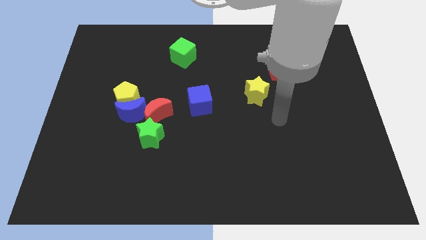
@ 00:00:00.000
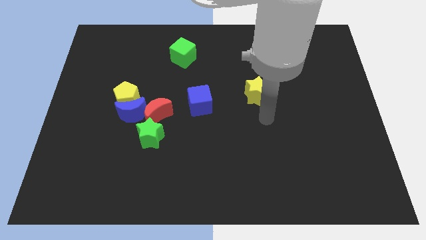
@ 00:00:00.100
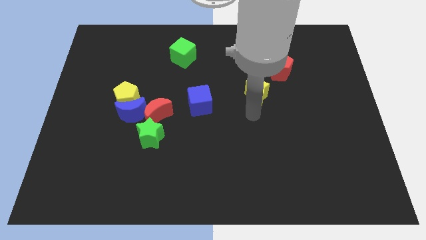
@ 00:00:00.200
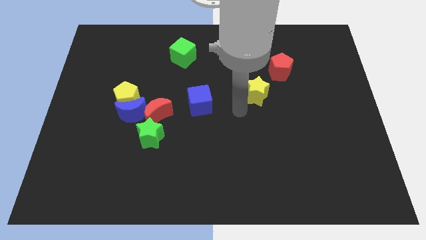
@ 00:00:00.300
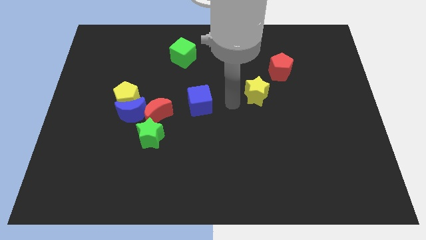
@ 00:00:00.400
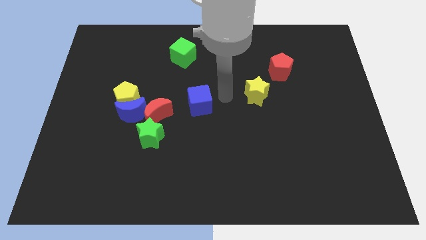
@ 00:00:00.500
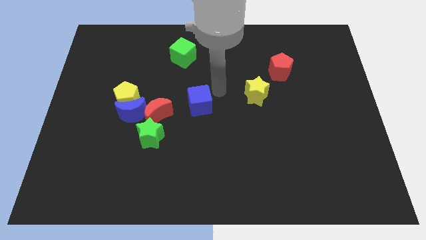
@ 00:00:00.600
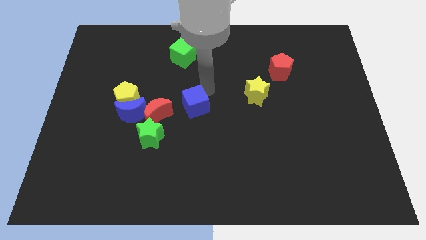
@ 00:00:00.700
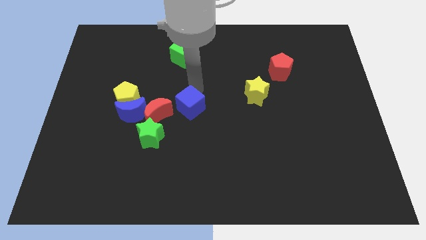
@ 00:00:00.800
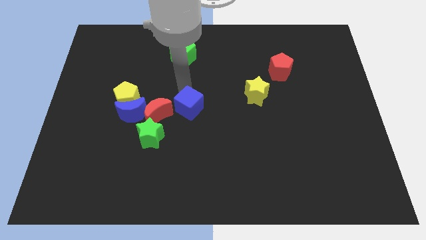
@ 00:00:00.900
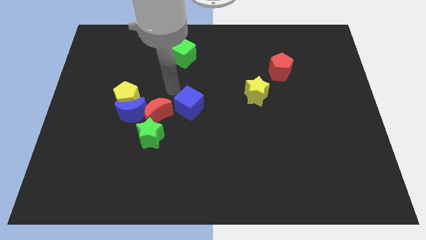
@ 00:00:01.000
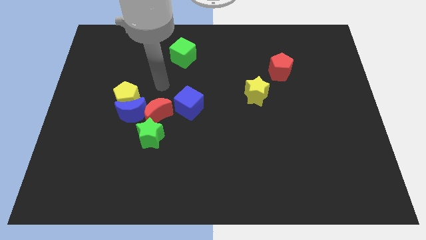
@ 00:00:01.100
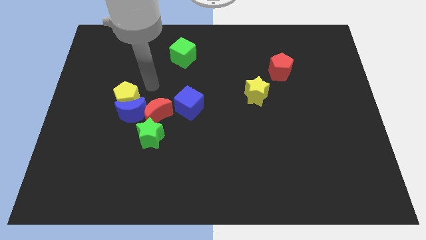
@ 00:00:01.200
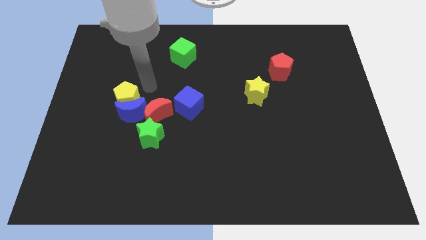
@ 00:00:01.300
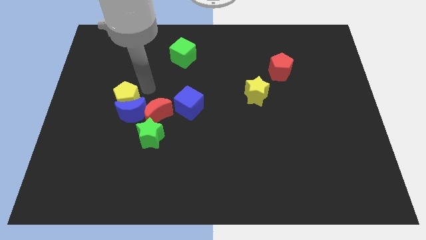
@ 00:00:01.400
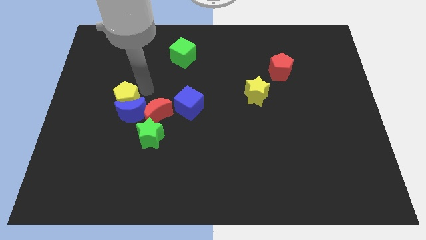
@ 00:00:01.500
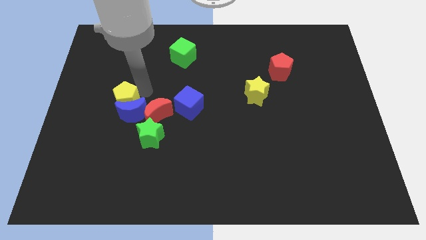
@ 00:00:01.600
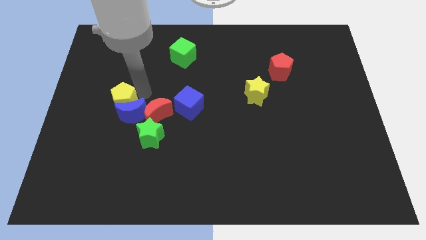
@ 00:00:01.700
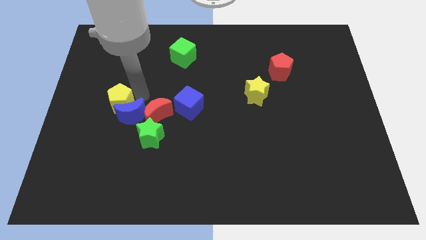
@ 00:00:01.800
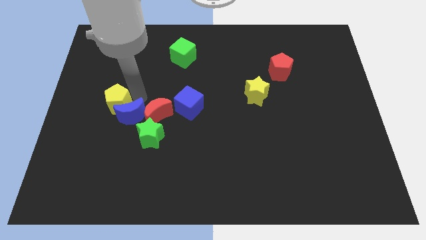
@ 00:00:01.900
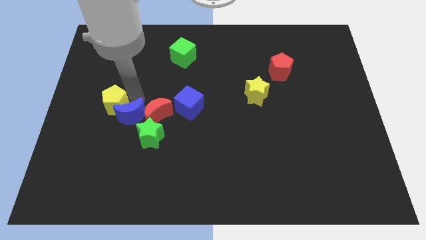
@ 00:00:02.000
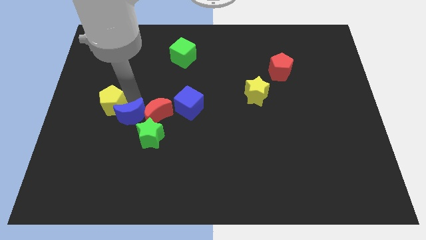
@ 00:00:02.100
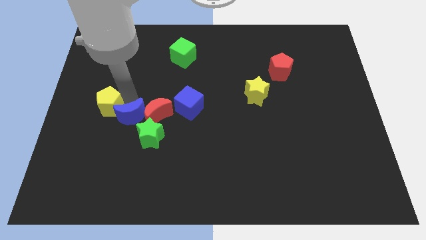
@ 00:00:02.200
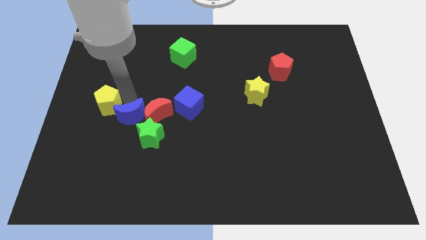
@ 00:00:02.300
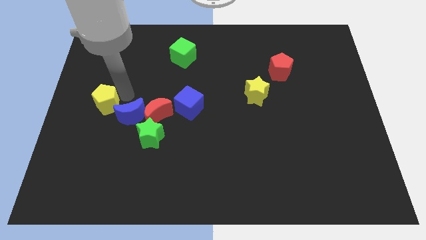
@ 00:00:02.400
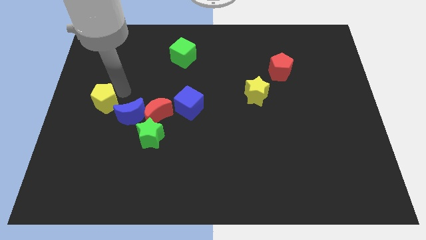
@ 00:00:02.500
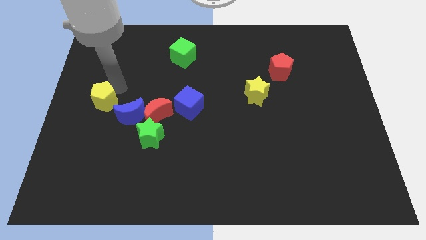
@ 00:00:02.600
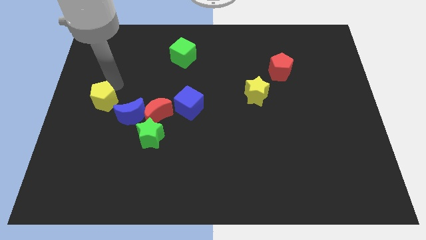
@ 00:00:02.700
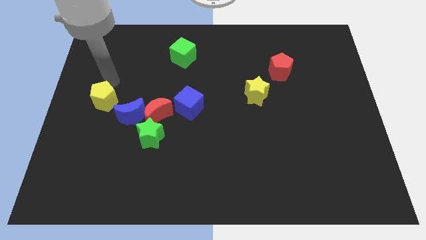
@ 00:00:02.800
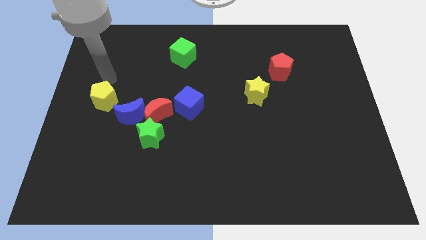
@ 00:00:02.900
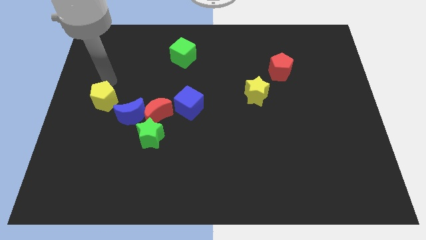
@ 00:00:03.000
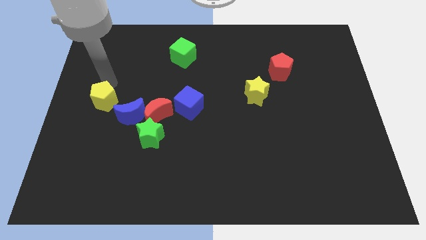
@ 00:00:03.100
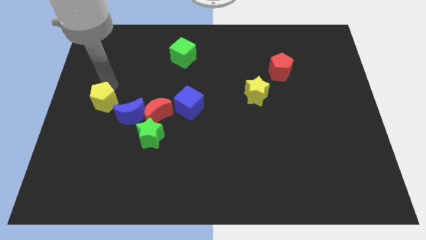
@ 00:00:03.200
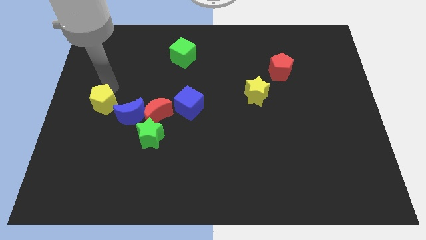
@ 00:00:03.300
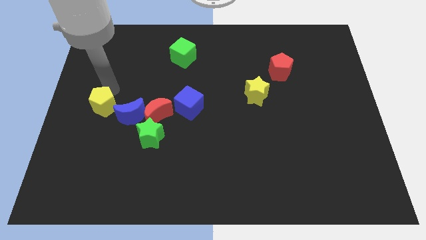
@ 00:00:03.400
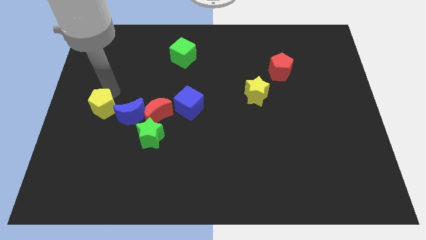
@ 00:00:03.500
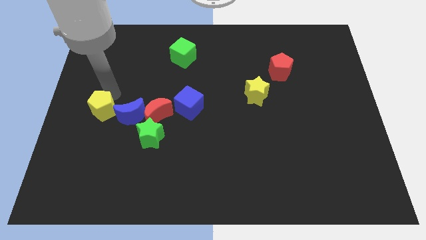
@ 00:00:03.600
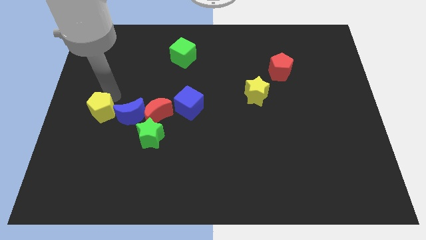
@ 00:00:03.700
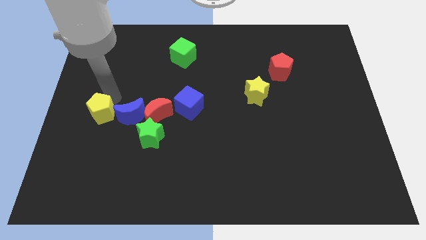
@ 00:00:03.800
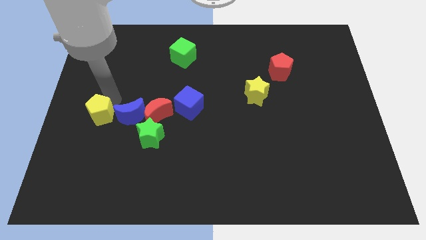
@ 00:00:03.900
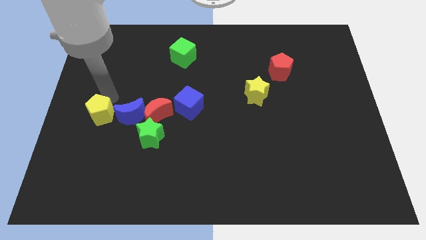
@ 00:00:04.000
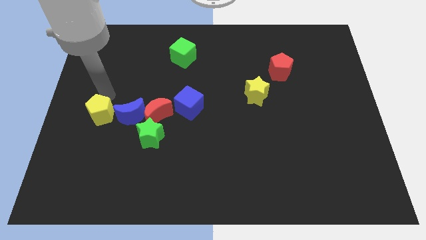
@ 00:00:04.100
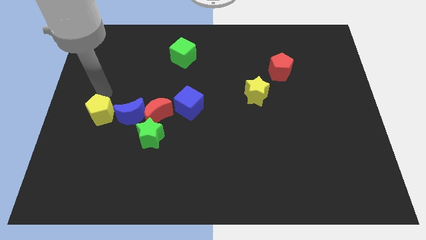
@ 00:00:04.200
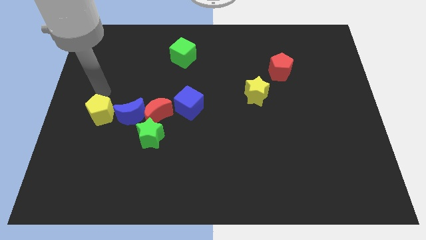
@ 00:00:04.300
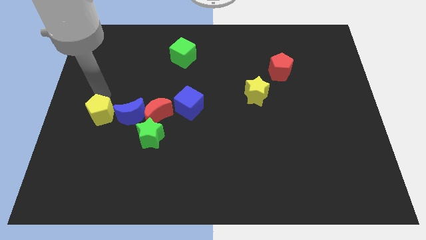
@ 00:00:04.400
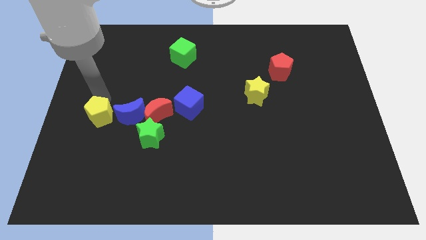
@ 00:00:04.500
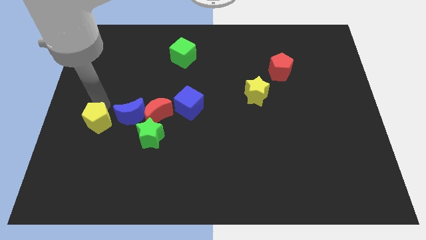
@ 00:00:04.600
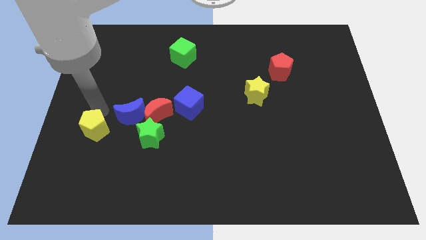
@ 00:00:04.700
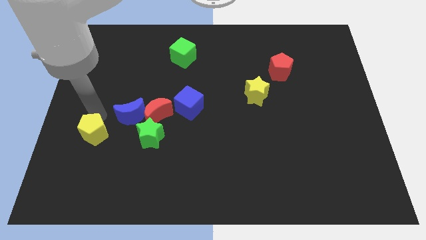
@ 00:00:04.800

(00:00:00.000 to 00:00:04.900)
move the yellow pentagon downwards a little

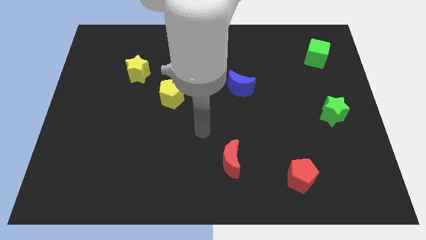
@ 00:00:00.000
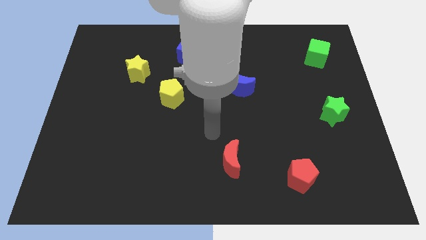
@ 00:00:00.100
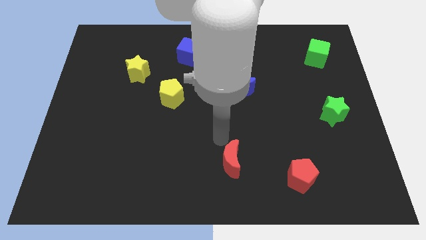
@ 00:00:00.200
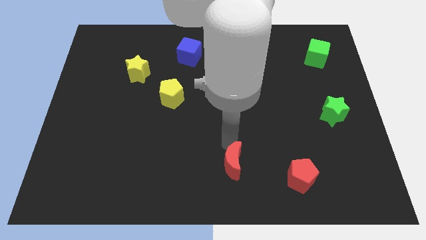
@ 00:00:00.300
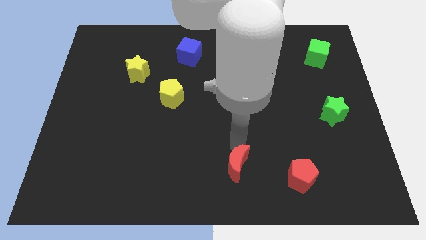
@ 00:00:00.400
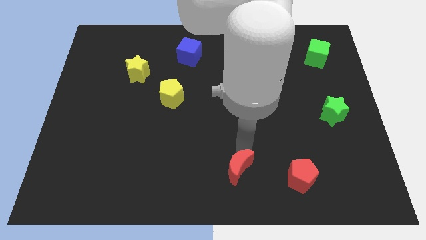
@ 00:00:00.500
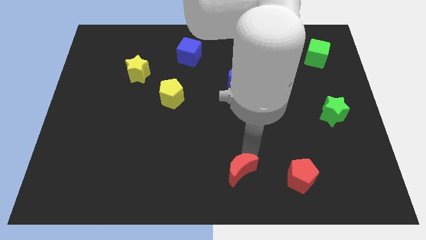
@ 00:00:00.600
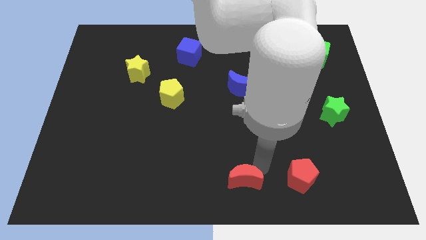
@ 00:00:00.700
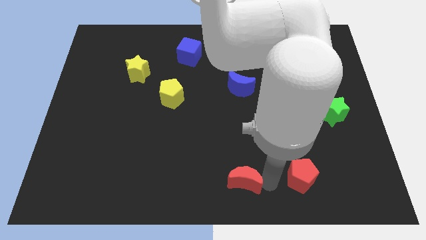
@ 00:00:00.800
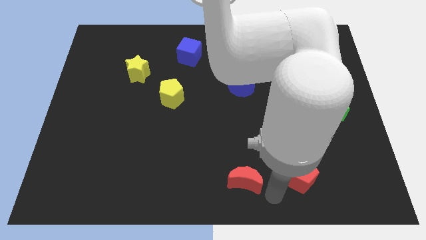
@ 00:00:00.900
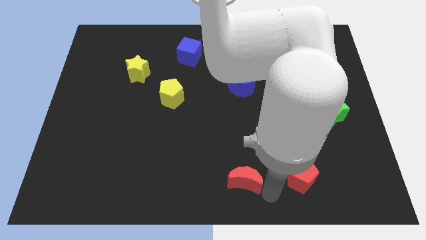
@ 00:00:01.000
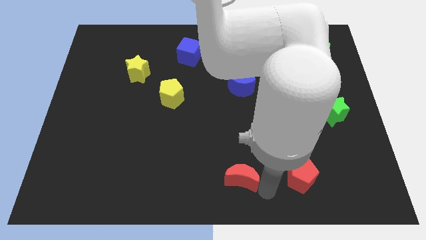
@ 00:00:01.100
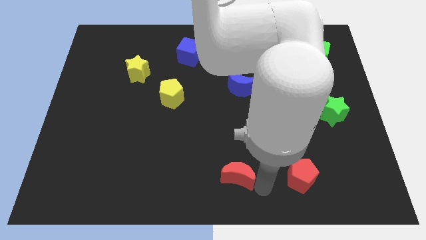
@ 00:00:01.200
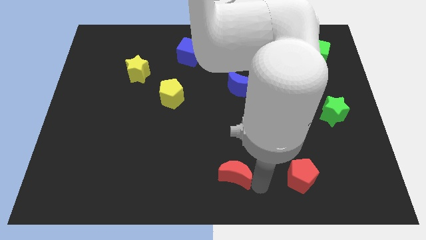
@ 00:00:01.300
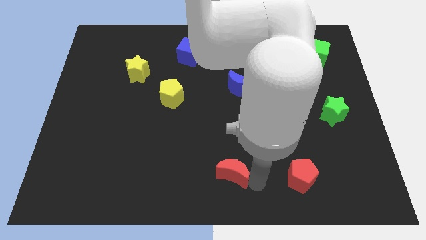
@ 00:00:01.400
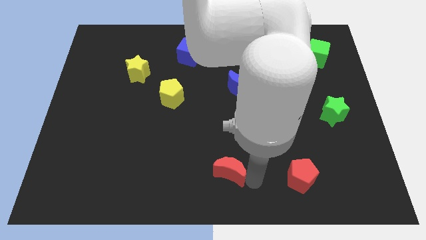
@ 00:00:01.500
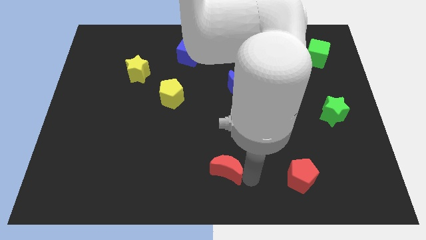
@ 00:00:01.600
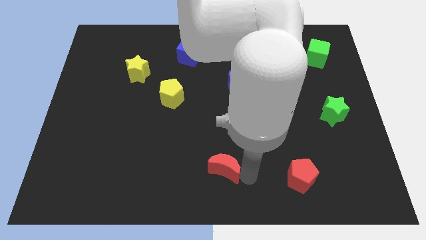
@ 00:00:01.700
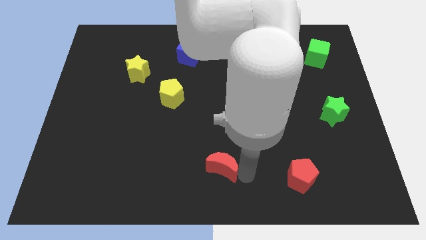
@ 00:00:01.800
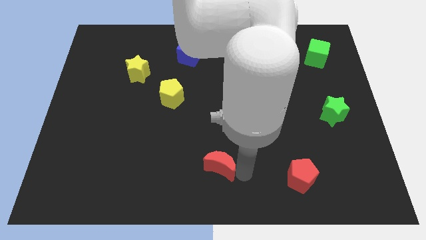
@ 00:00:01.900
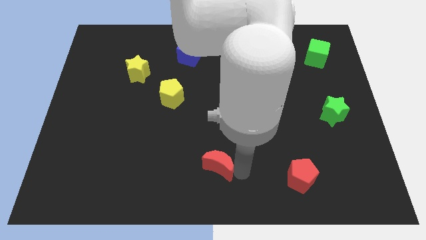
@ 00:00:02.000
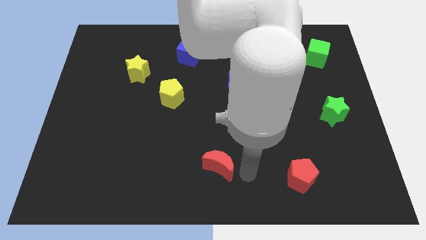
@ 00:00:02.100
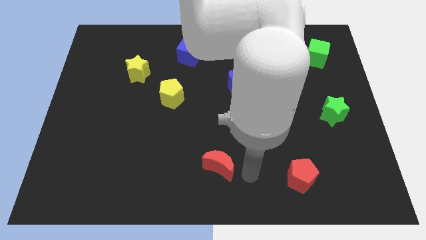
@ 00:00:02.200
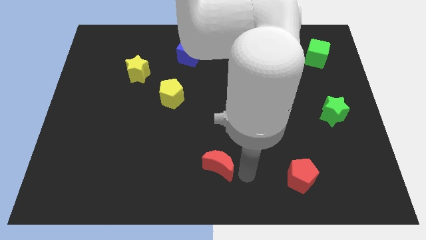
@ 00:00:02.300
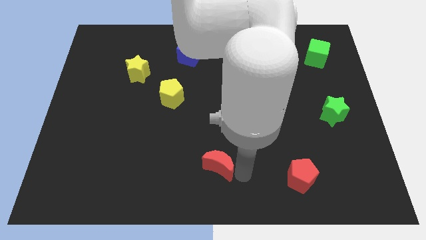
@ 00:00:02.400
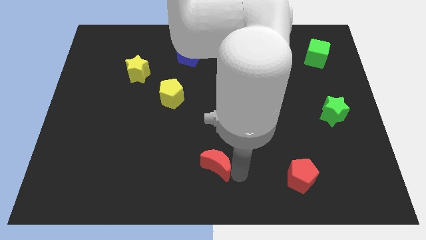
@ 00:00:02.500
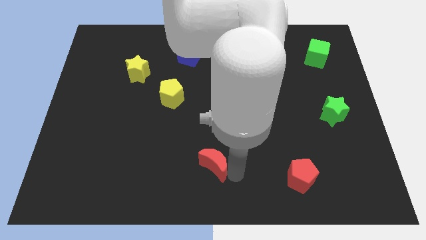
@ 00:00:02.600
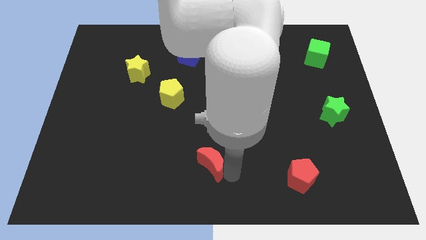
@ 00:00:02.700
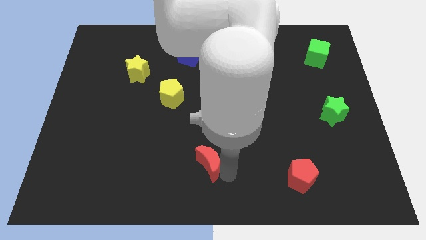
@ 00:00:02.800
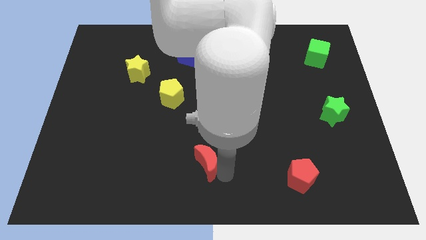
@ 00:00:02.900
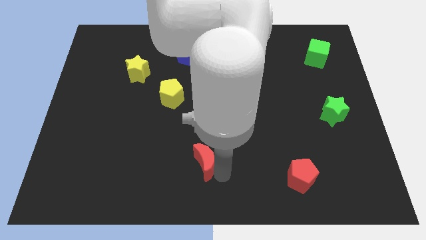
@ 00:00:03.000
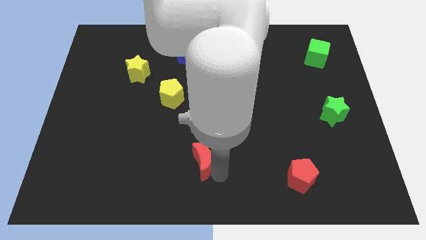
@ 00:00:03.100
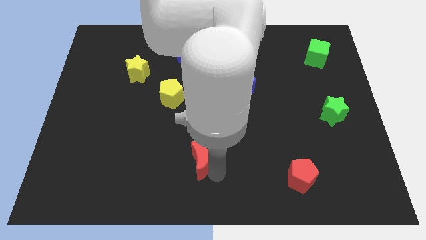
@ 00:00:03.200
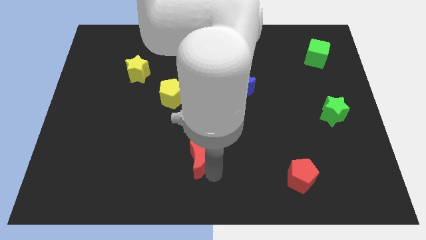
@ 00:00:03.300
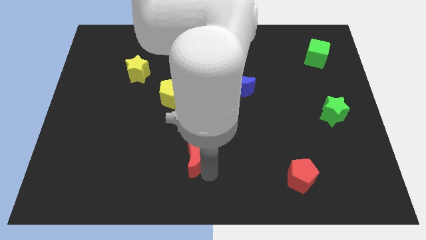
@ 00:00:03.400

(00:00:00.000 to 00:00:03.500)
slide the red moon left somewhat
